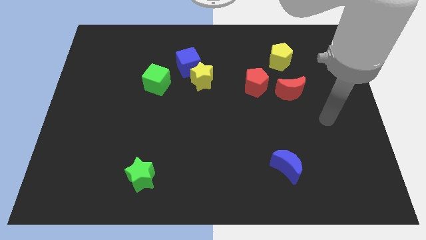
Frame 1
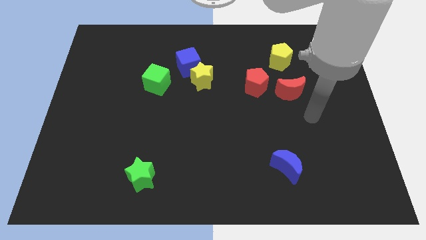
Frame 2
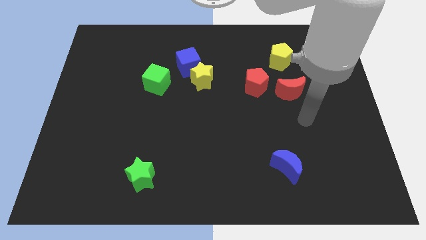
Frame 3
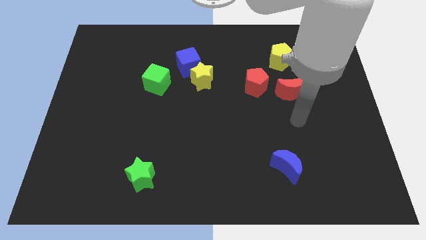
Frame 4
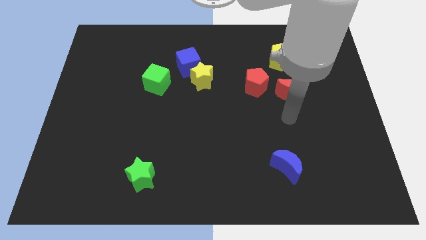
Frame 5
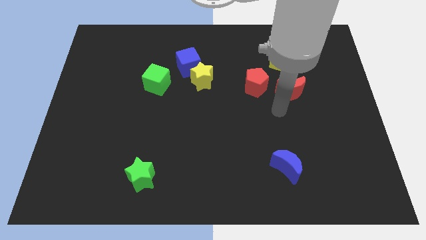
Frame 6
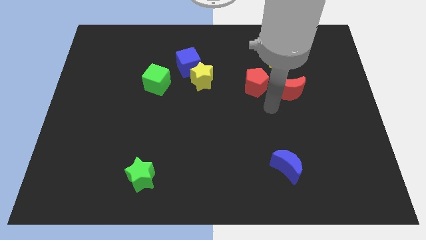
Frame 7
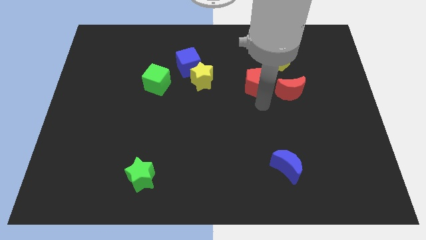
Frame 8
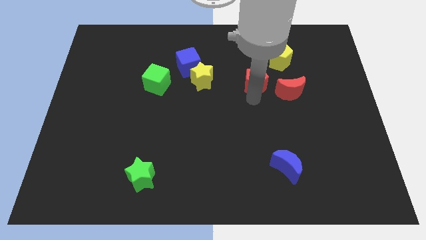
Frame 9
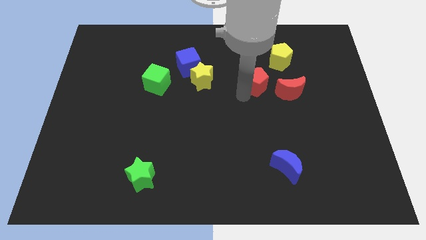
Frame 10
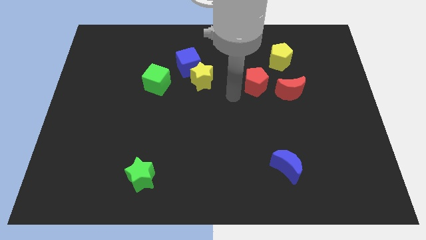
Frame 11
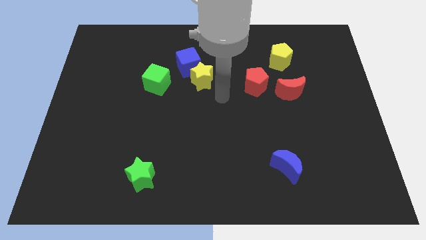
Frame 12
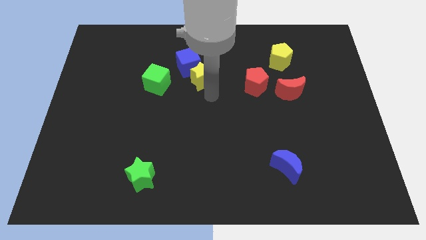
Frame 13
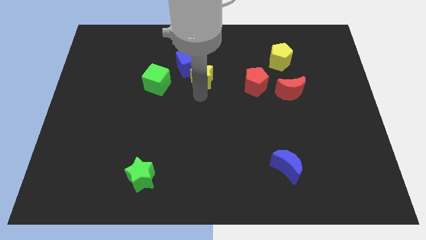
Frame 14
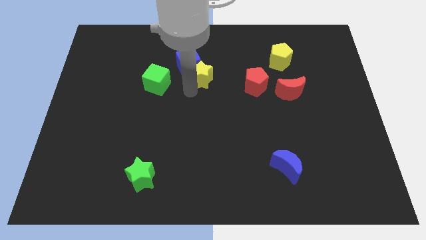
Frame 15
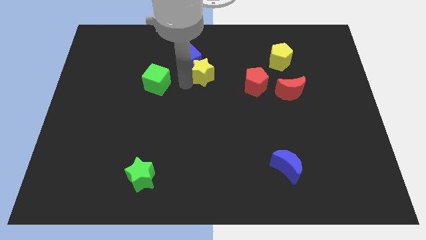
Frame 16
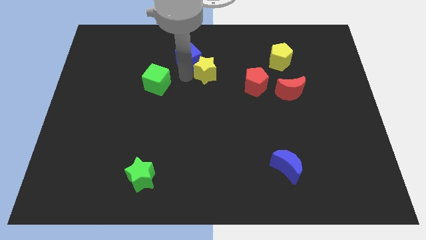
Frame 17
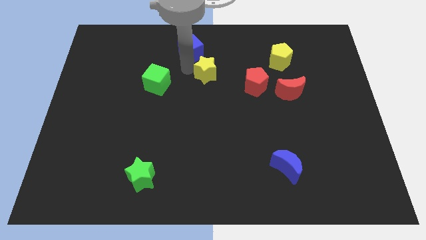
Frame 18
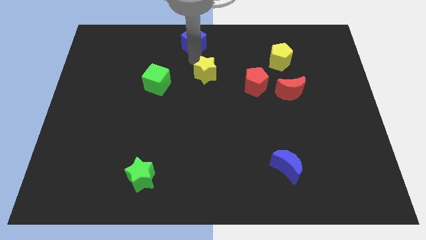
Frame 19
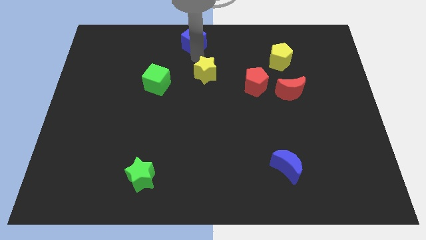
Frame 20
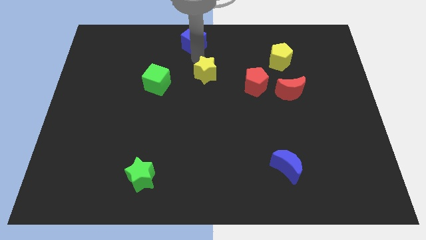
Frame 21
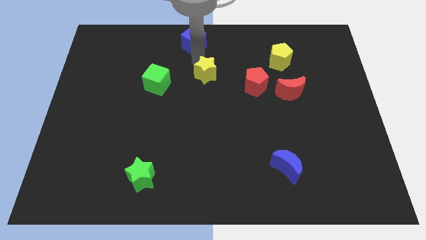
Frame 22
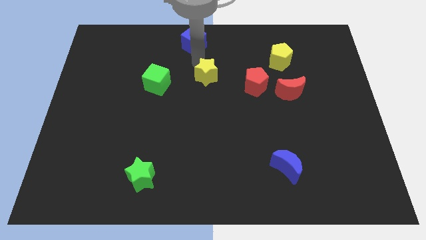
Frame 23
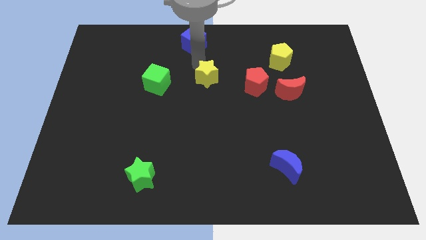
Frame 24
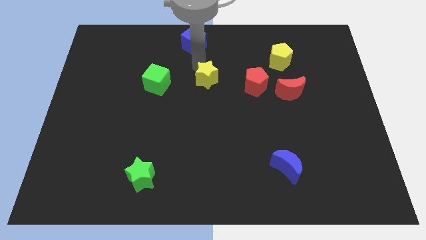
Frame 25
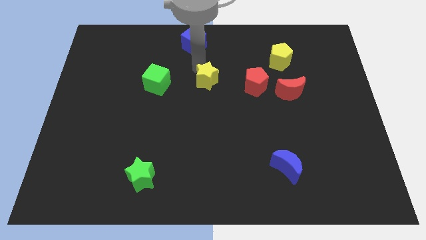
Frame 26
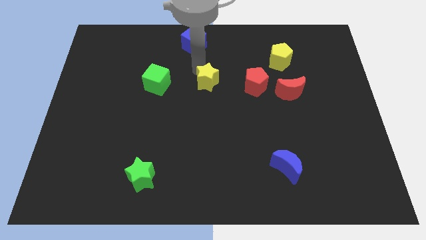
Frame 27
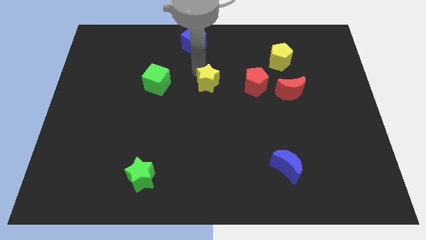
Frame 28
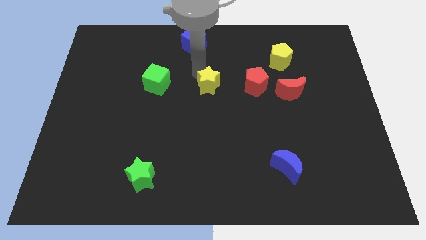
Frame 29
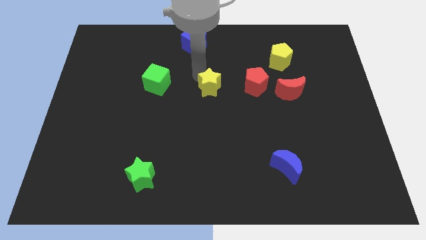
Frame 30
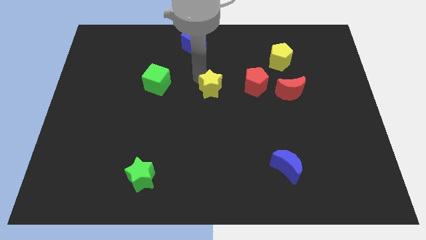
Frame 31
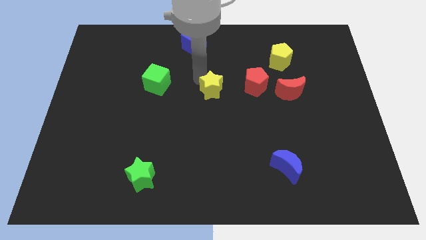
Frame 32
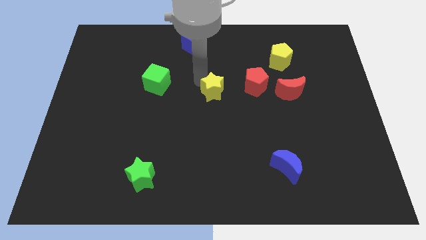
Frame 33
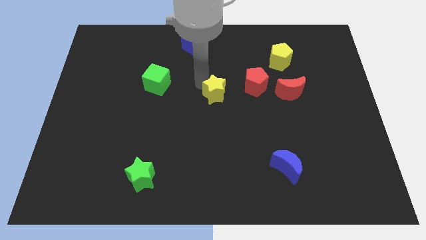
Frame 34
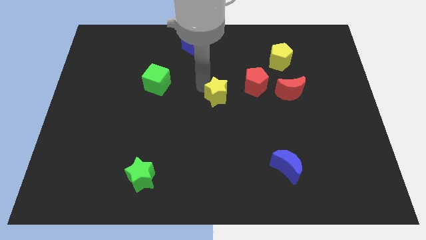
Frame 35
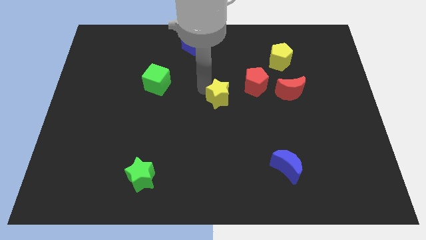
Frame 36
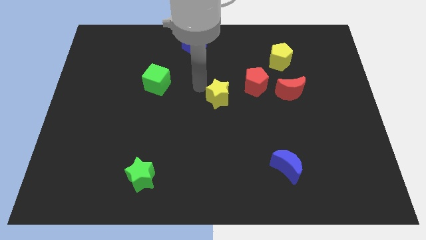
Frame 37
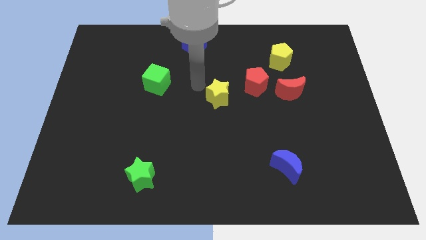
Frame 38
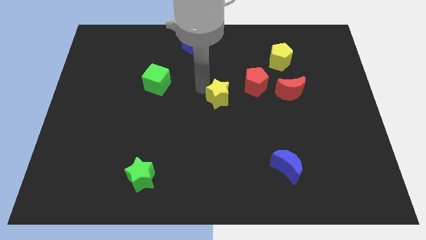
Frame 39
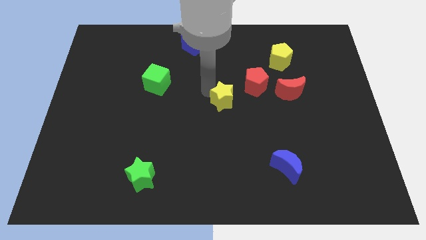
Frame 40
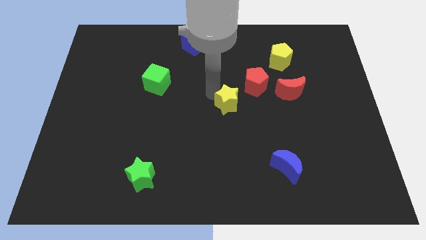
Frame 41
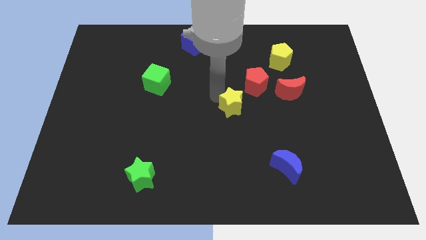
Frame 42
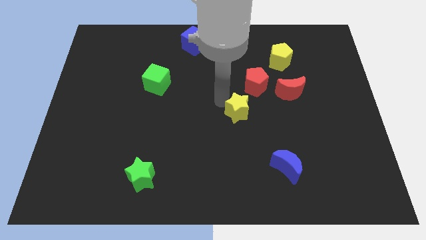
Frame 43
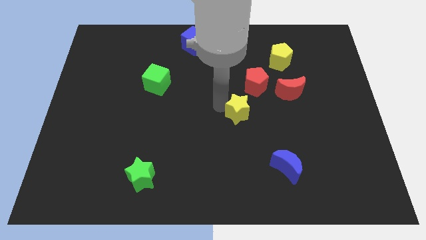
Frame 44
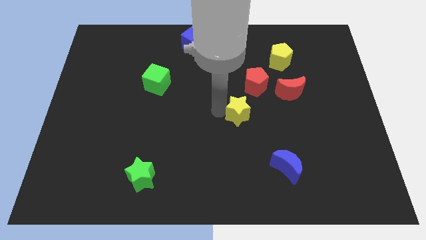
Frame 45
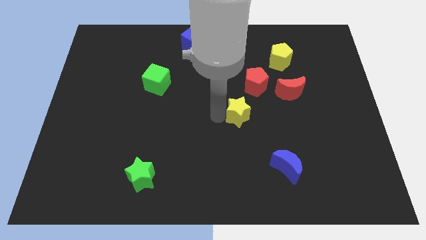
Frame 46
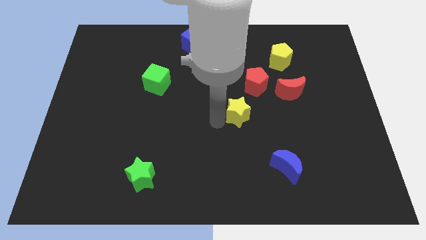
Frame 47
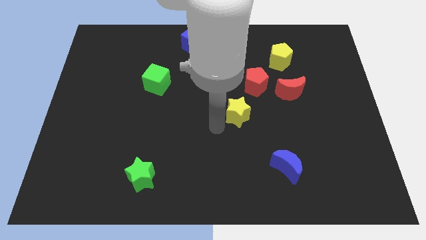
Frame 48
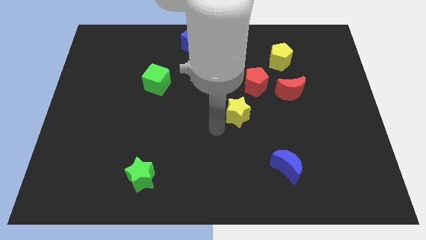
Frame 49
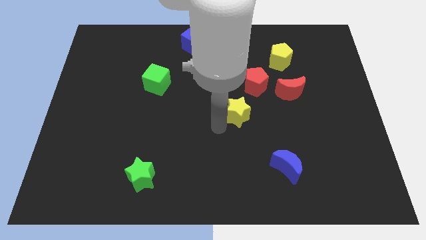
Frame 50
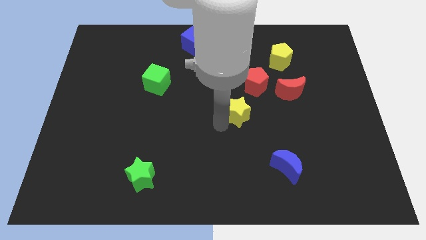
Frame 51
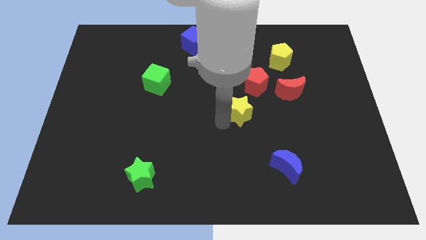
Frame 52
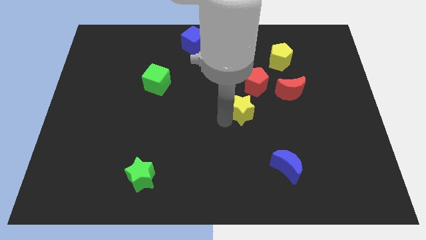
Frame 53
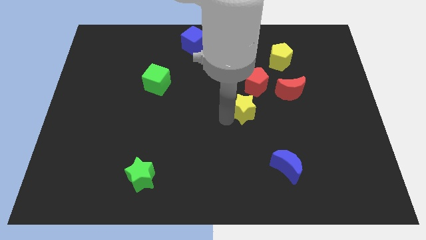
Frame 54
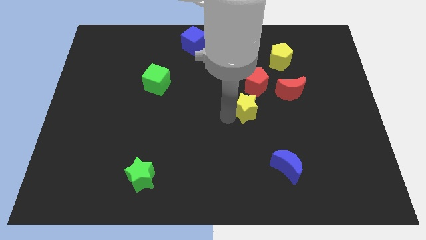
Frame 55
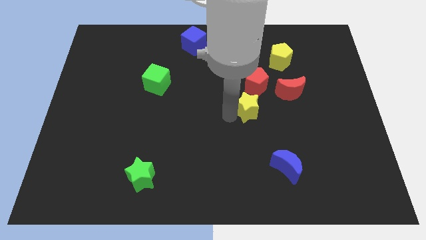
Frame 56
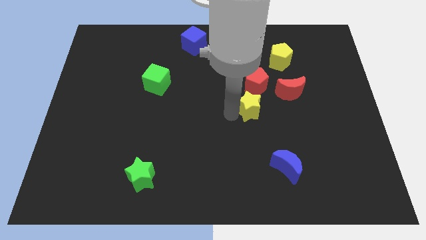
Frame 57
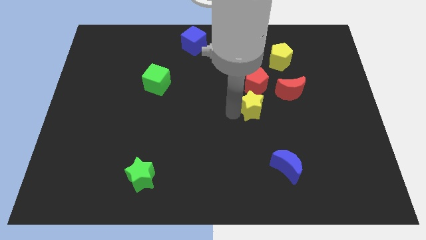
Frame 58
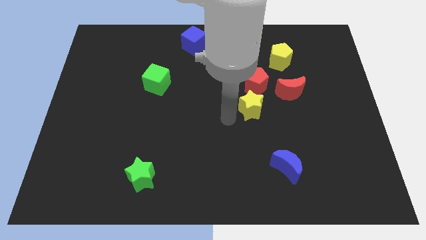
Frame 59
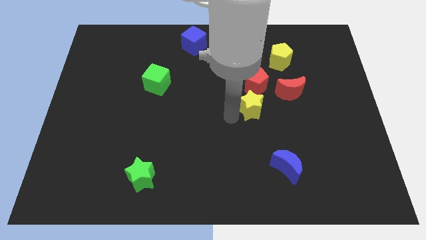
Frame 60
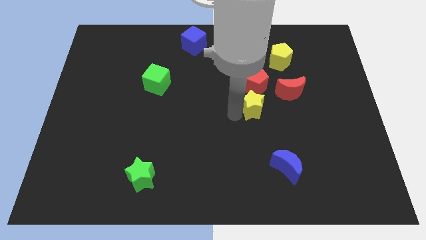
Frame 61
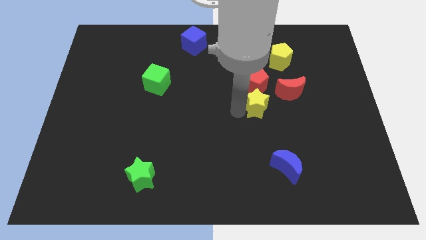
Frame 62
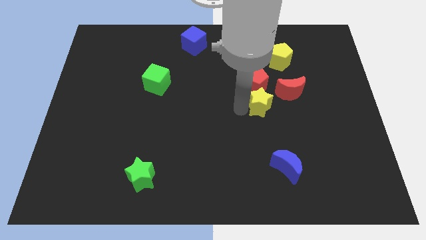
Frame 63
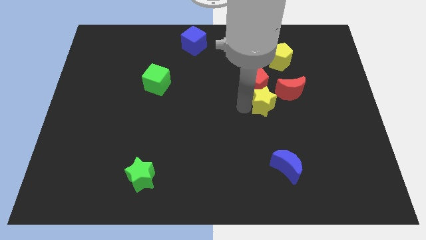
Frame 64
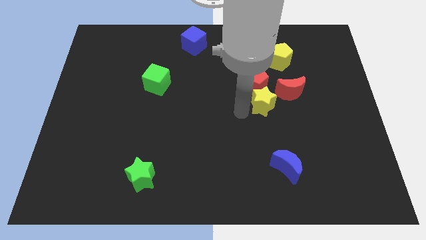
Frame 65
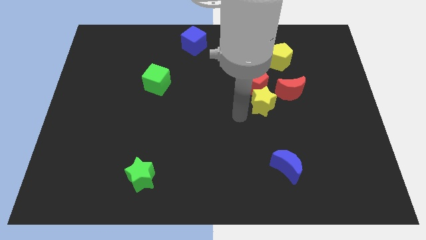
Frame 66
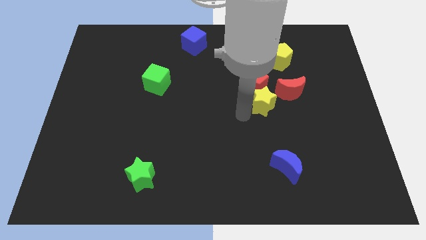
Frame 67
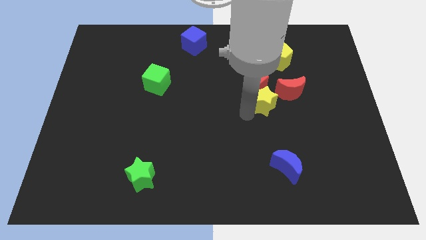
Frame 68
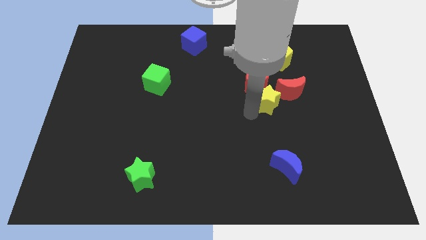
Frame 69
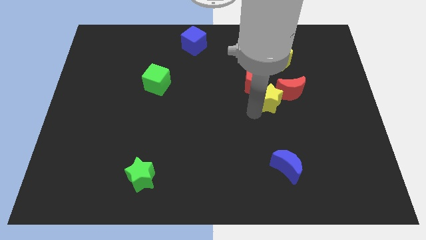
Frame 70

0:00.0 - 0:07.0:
slide the yellow star next to the red moon

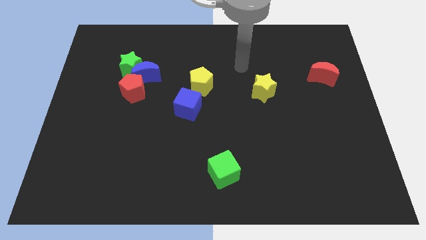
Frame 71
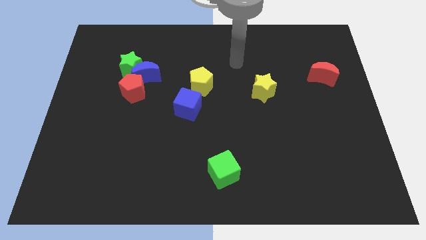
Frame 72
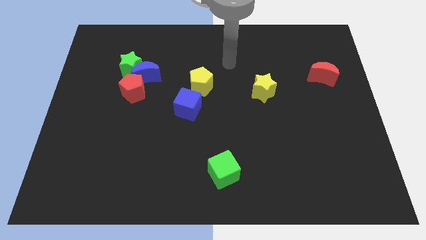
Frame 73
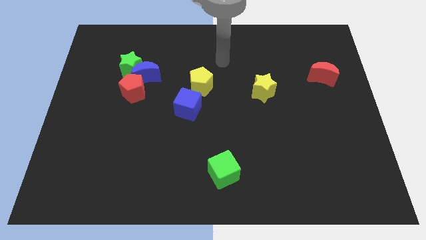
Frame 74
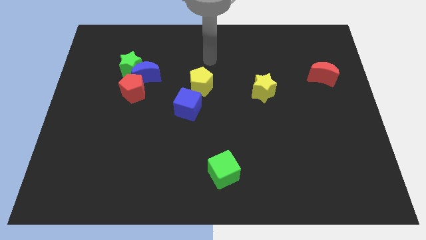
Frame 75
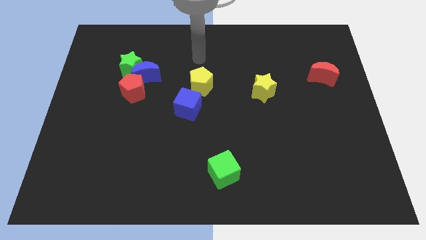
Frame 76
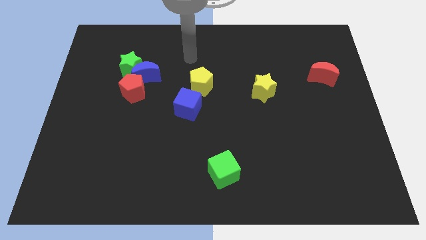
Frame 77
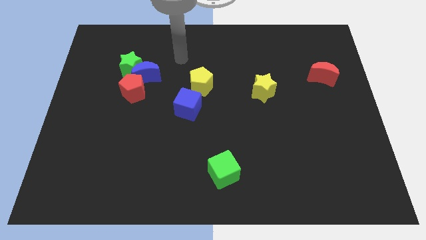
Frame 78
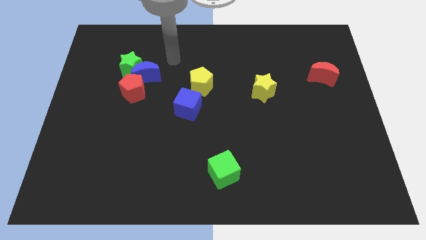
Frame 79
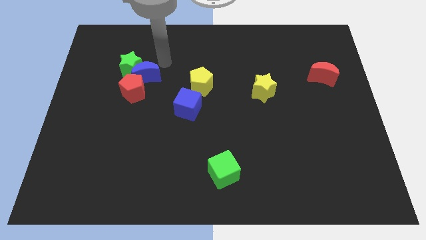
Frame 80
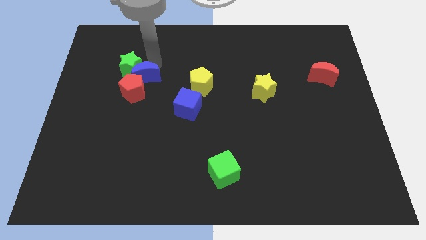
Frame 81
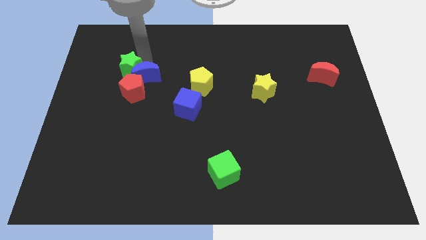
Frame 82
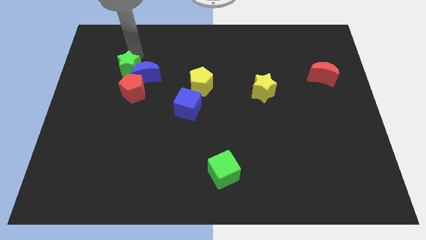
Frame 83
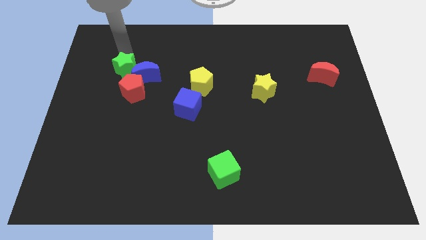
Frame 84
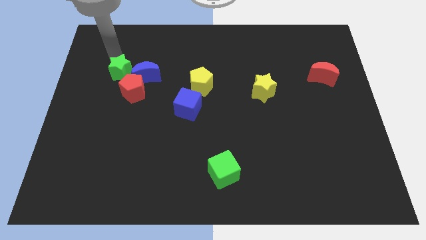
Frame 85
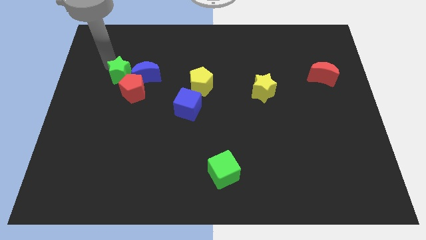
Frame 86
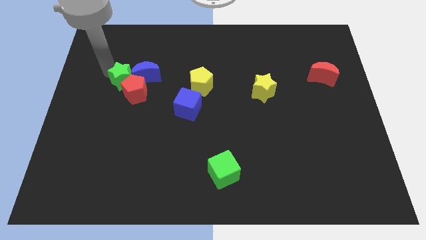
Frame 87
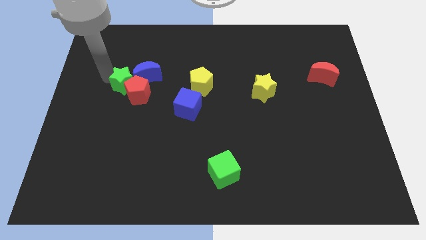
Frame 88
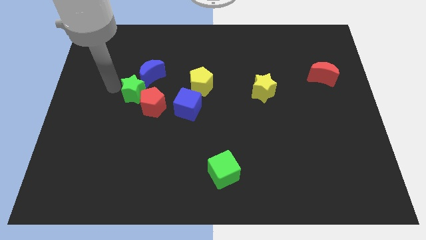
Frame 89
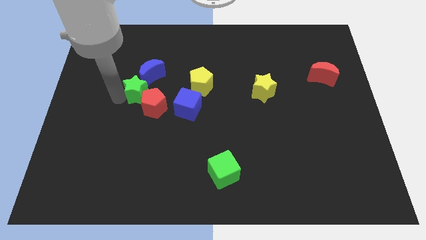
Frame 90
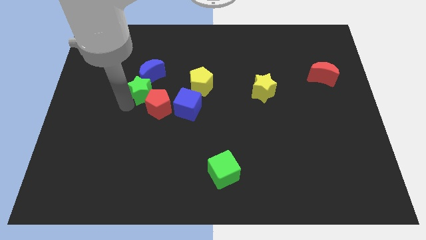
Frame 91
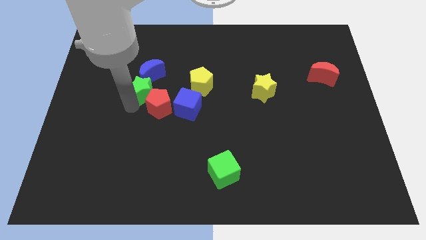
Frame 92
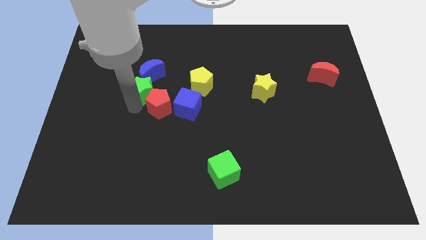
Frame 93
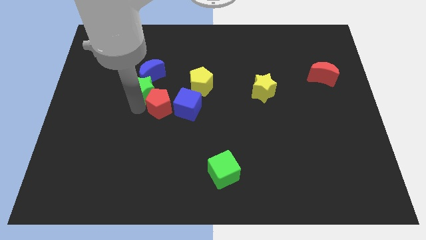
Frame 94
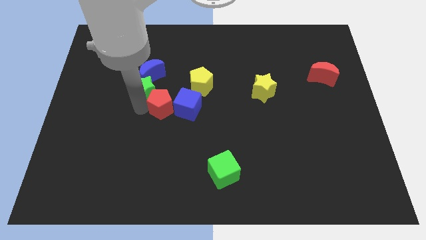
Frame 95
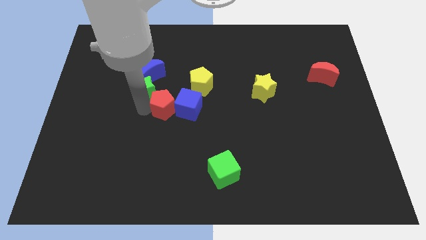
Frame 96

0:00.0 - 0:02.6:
move the red pentagon towards the blue cube
